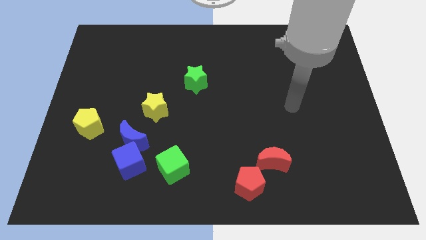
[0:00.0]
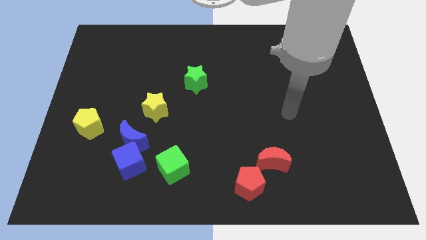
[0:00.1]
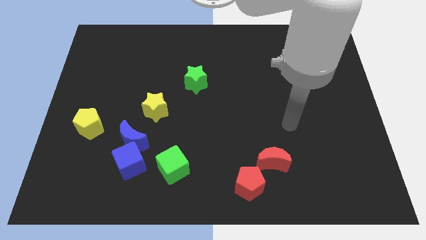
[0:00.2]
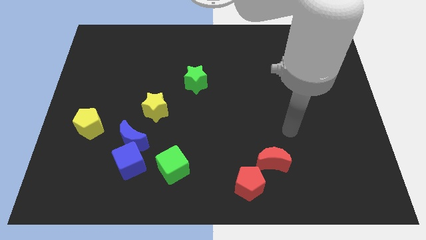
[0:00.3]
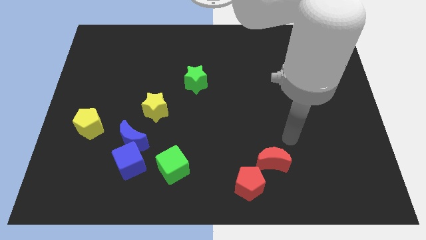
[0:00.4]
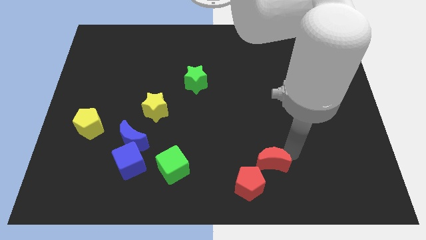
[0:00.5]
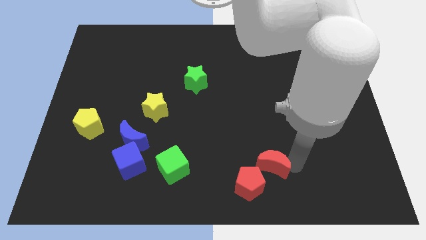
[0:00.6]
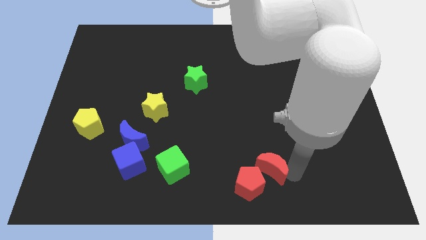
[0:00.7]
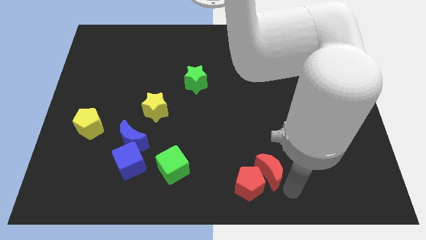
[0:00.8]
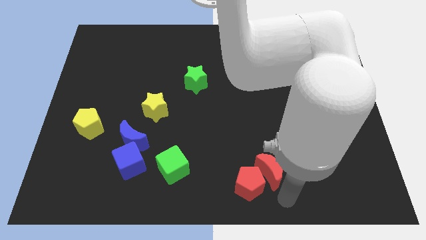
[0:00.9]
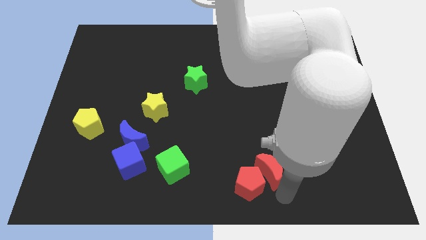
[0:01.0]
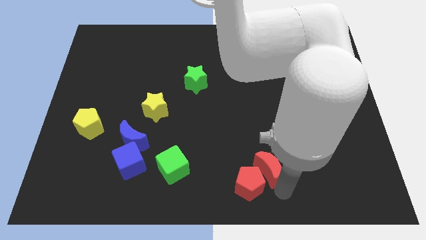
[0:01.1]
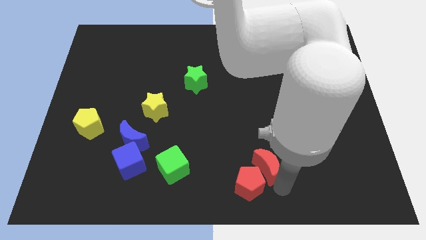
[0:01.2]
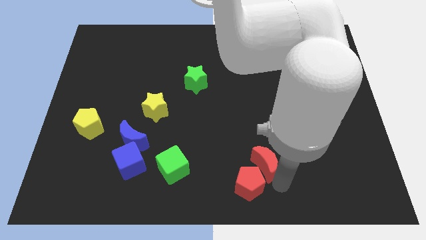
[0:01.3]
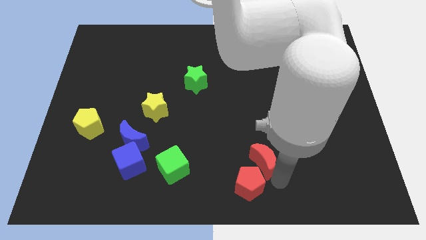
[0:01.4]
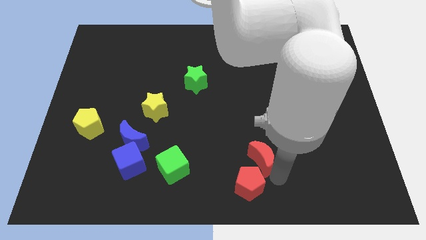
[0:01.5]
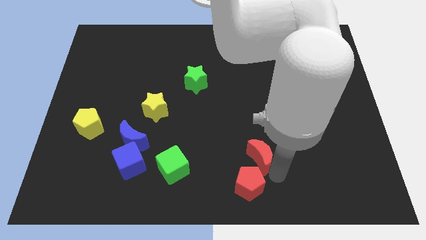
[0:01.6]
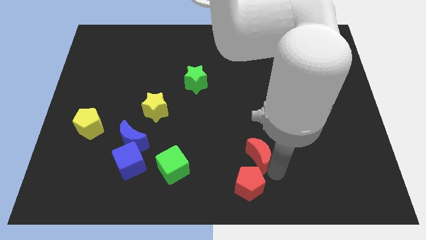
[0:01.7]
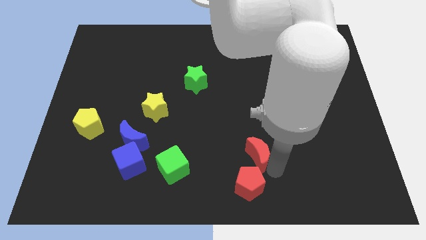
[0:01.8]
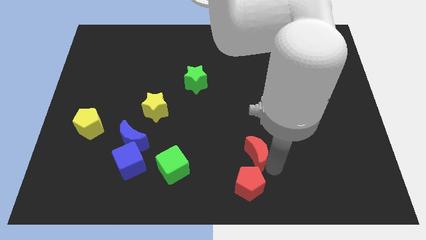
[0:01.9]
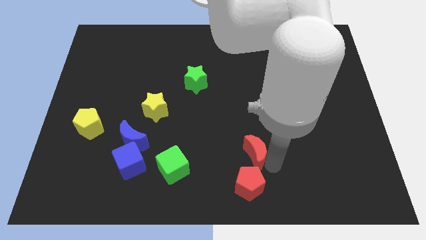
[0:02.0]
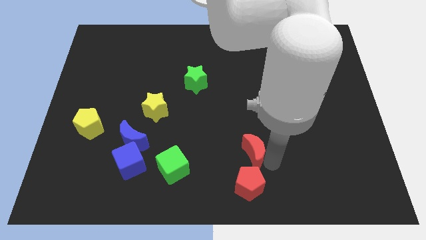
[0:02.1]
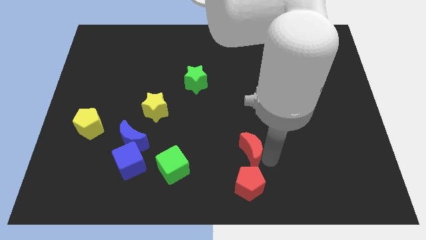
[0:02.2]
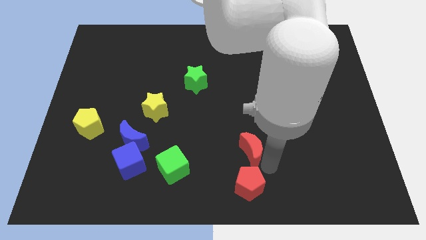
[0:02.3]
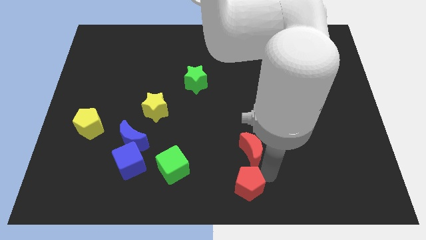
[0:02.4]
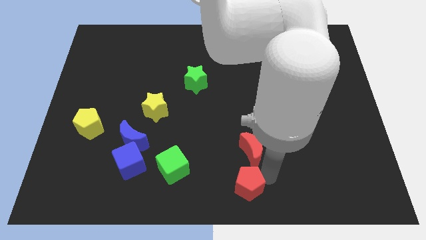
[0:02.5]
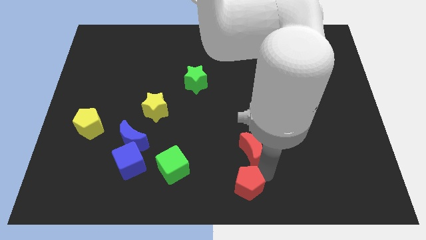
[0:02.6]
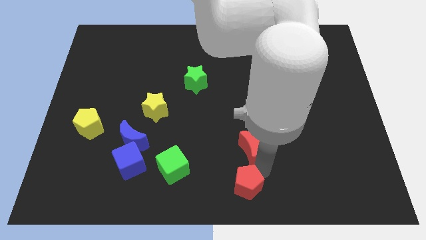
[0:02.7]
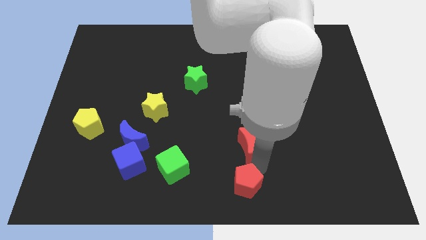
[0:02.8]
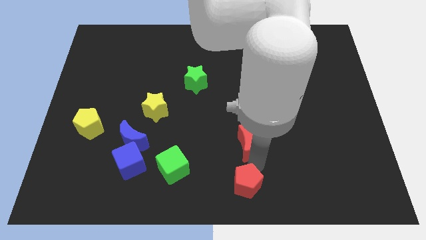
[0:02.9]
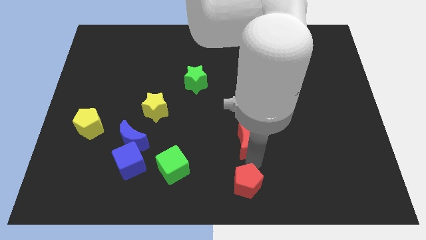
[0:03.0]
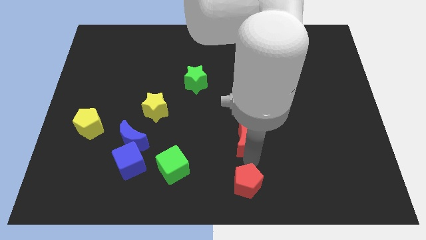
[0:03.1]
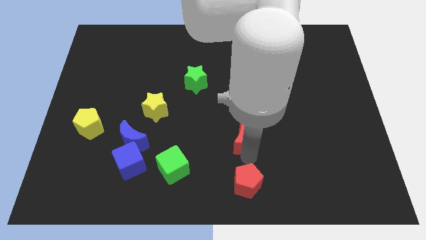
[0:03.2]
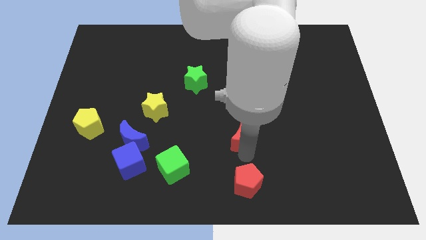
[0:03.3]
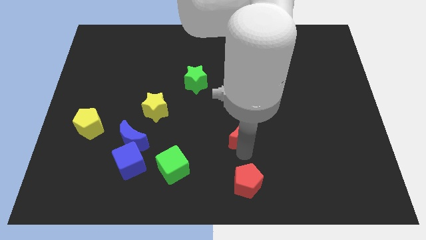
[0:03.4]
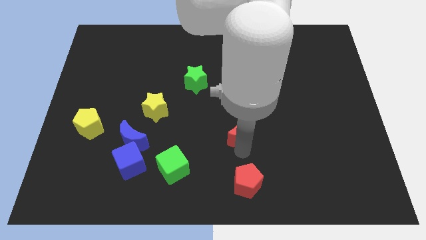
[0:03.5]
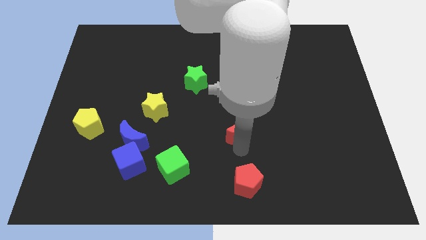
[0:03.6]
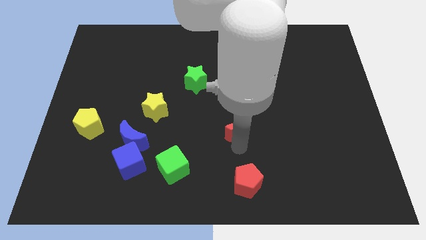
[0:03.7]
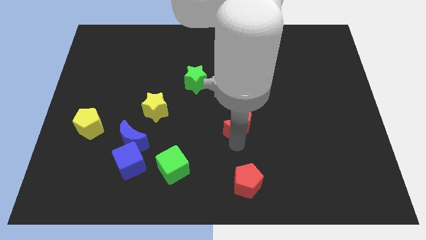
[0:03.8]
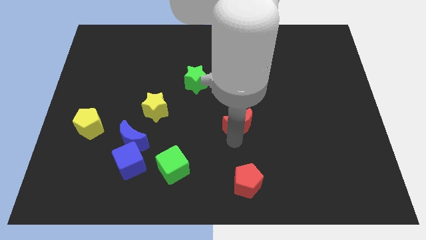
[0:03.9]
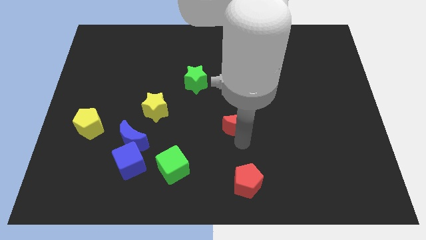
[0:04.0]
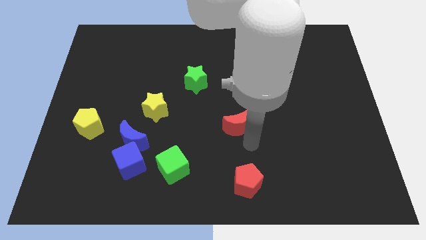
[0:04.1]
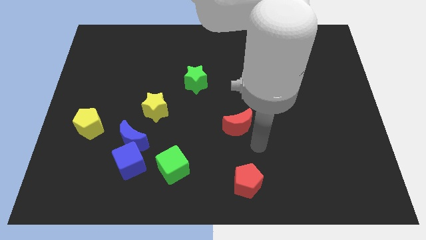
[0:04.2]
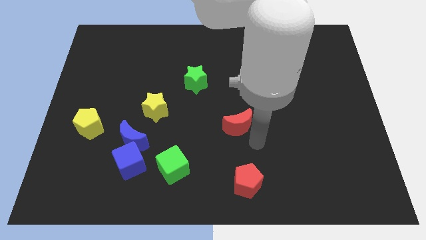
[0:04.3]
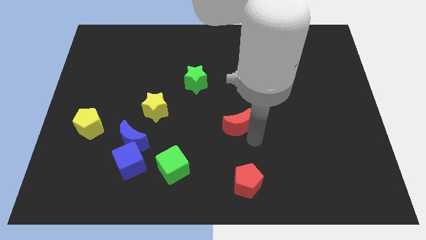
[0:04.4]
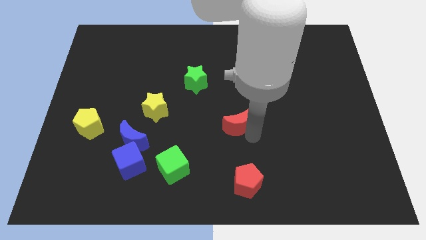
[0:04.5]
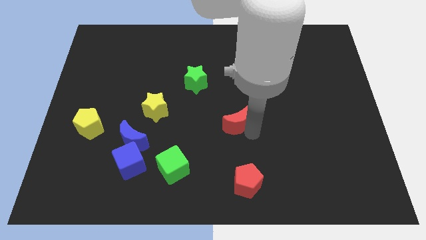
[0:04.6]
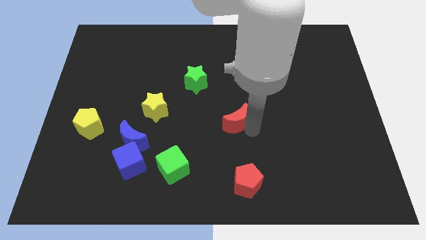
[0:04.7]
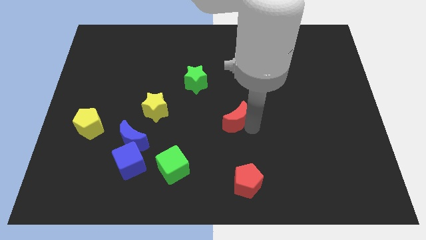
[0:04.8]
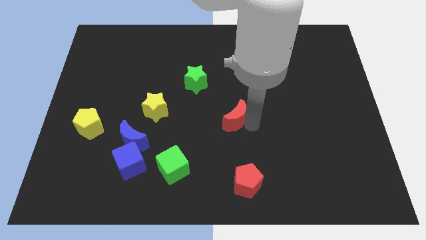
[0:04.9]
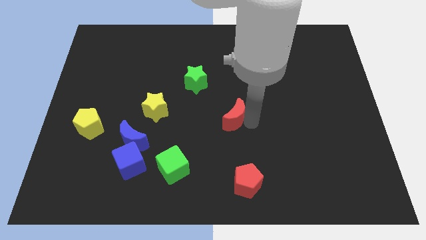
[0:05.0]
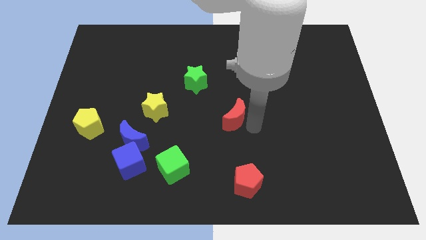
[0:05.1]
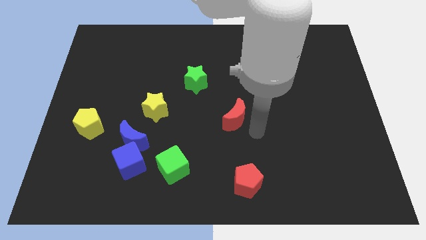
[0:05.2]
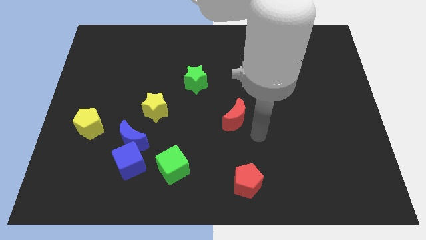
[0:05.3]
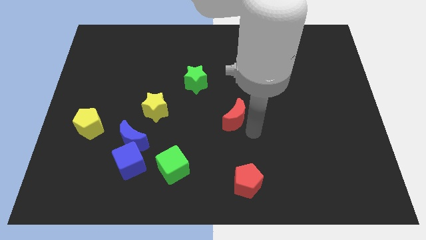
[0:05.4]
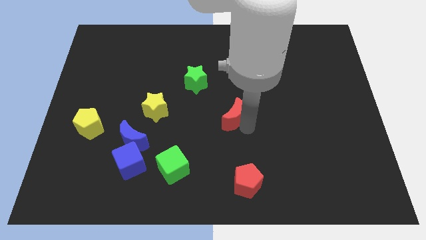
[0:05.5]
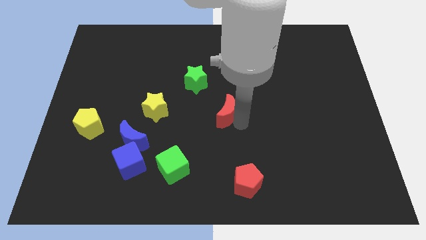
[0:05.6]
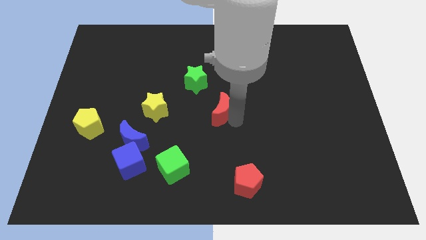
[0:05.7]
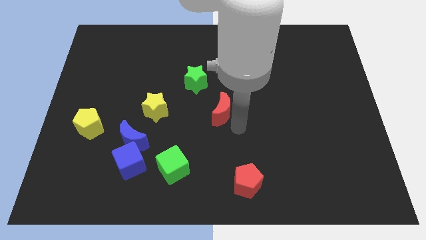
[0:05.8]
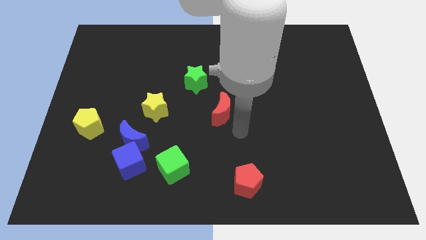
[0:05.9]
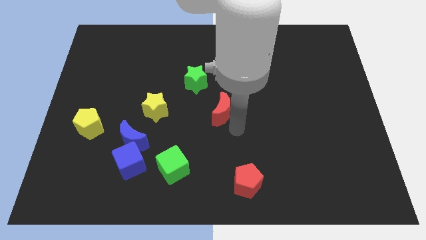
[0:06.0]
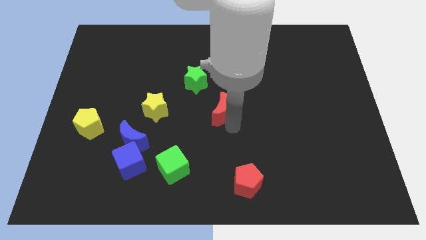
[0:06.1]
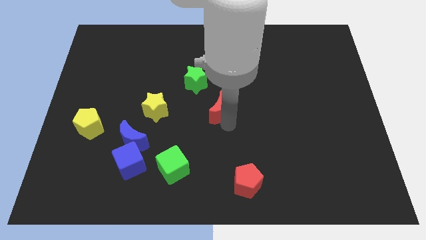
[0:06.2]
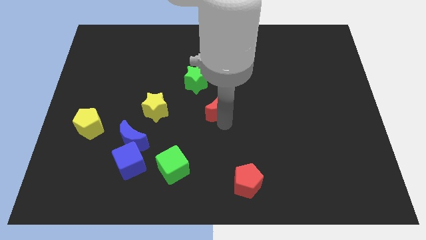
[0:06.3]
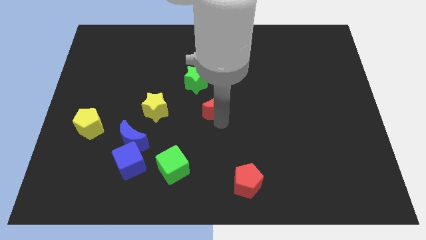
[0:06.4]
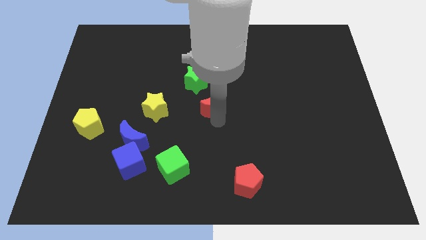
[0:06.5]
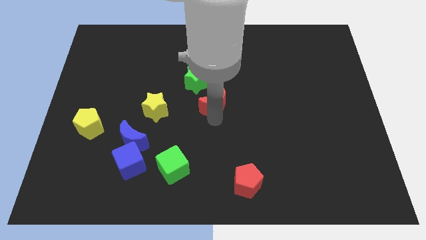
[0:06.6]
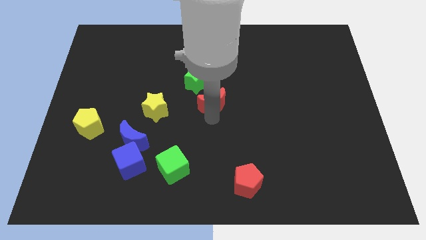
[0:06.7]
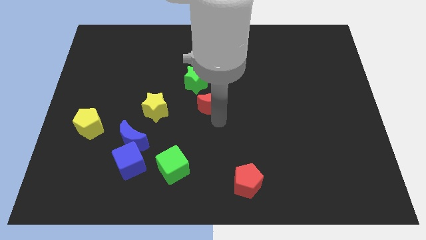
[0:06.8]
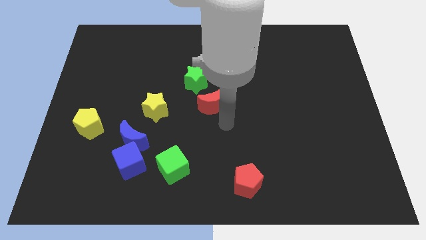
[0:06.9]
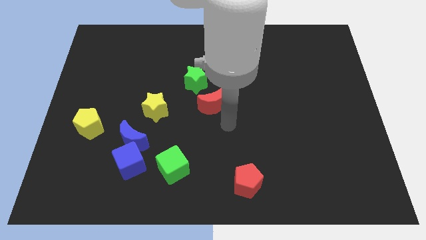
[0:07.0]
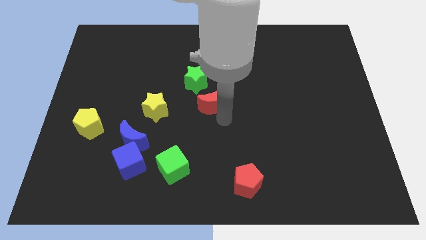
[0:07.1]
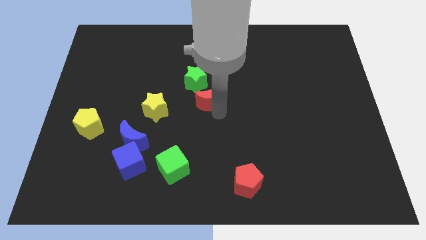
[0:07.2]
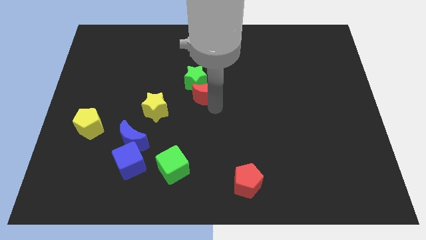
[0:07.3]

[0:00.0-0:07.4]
move the red moon close to the green star
